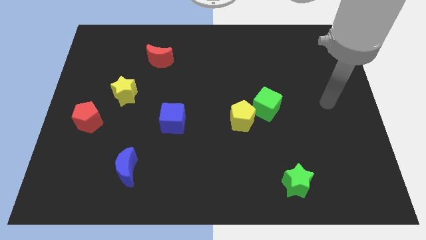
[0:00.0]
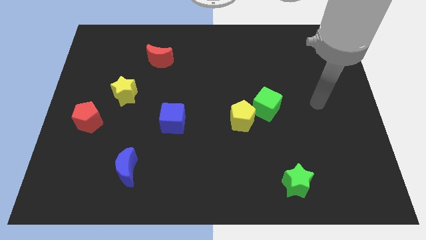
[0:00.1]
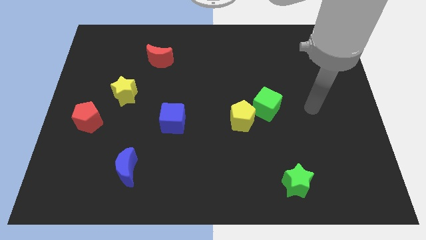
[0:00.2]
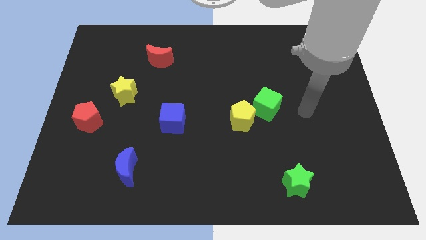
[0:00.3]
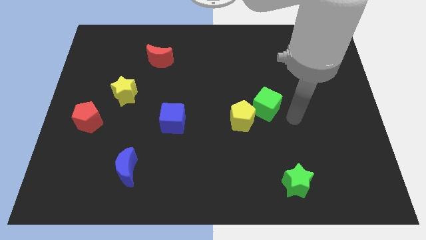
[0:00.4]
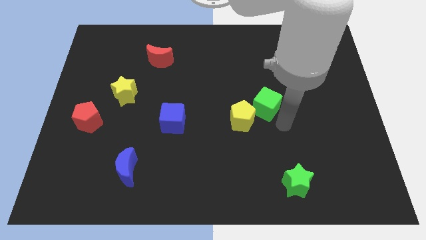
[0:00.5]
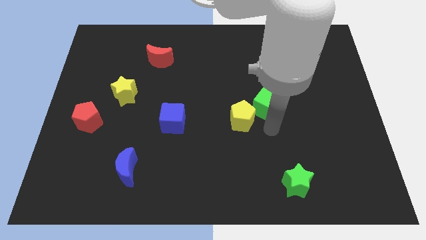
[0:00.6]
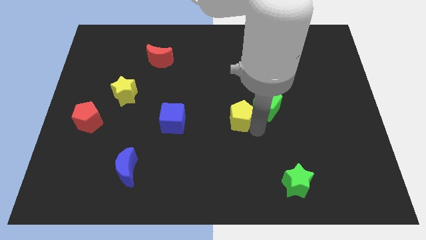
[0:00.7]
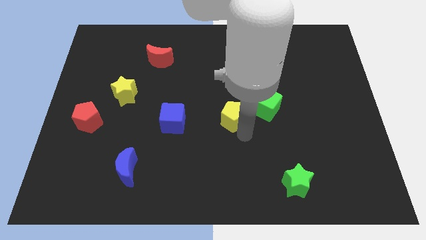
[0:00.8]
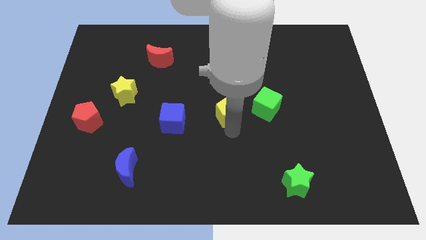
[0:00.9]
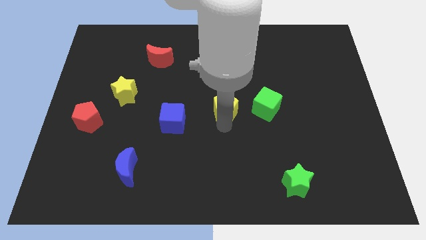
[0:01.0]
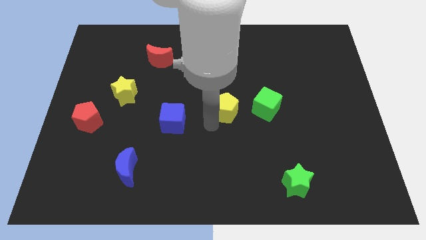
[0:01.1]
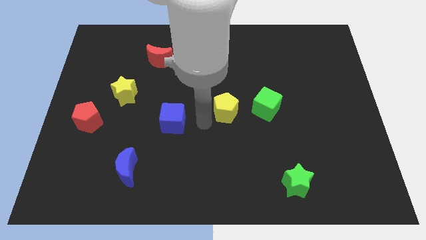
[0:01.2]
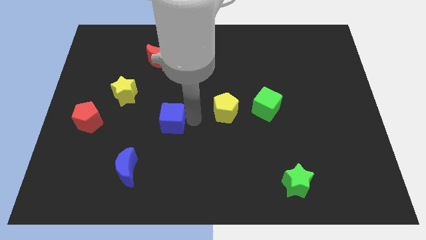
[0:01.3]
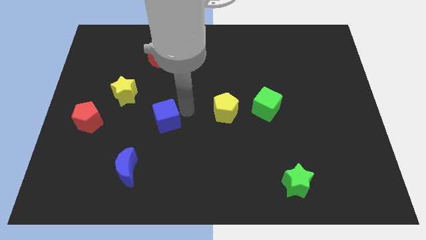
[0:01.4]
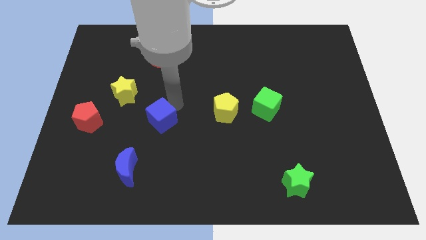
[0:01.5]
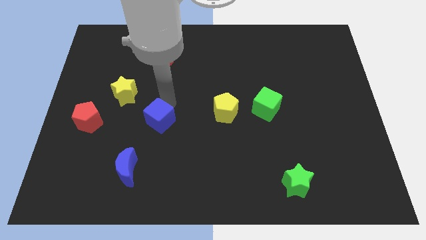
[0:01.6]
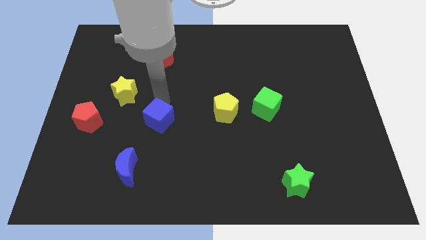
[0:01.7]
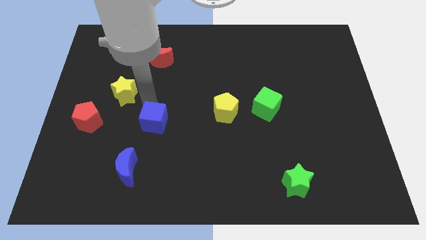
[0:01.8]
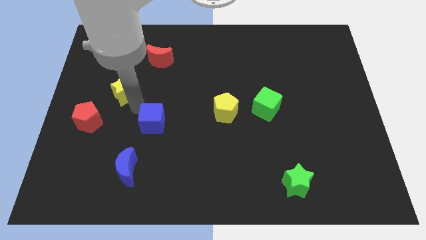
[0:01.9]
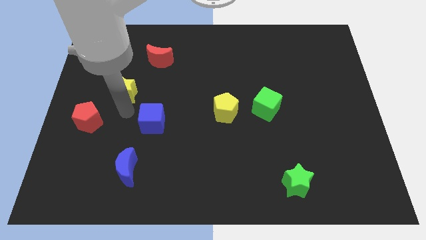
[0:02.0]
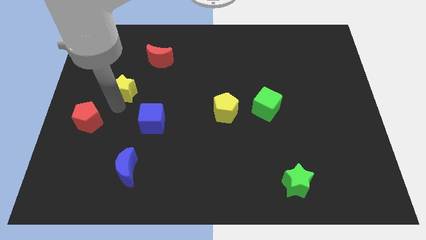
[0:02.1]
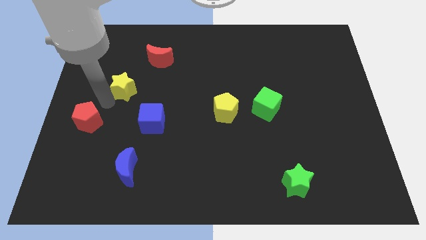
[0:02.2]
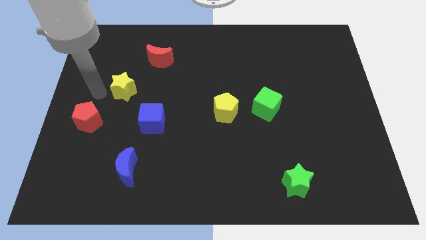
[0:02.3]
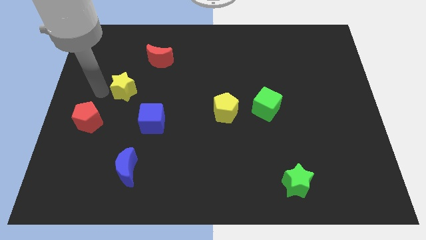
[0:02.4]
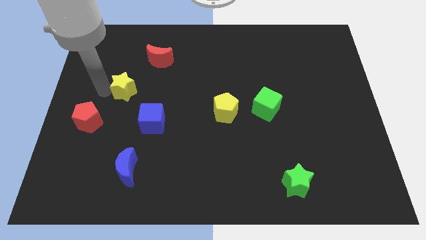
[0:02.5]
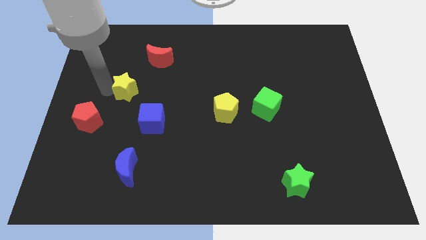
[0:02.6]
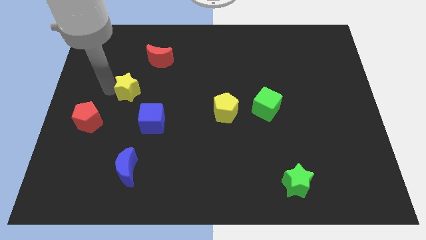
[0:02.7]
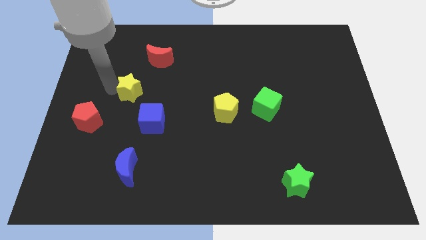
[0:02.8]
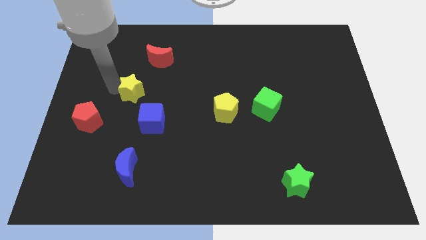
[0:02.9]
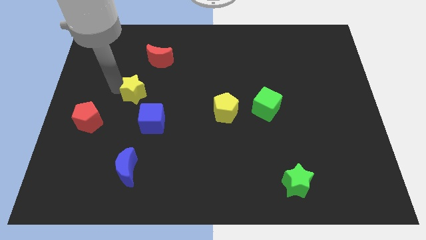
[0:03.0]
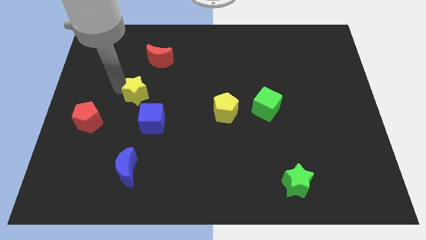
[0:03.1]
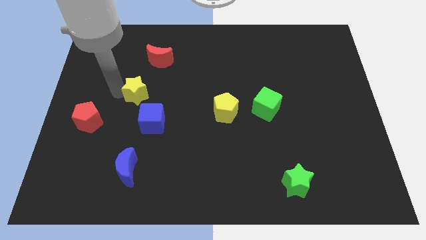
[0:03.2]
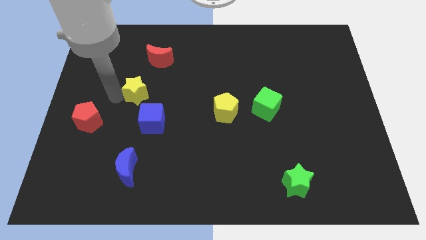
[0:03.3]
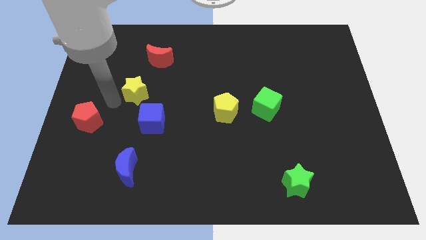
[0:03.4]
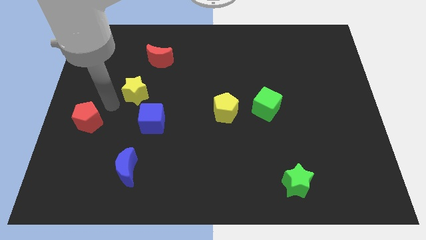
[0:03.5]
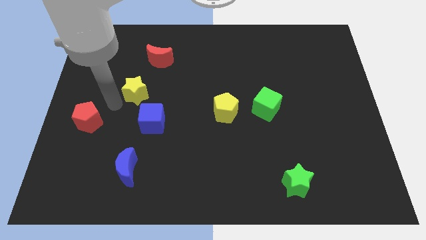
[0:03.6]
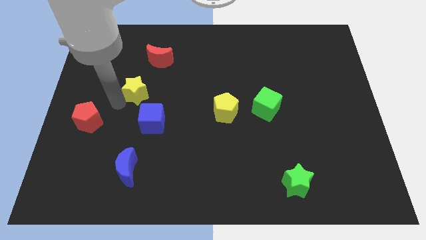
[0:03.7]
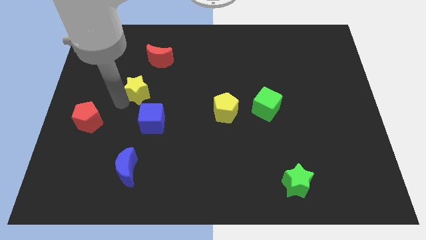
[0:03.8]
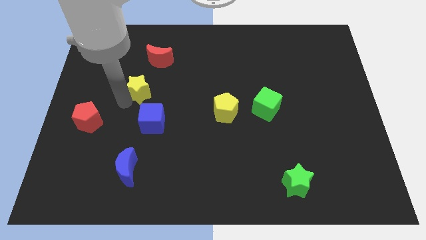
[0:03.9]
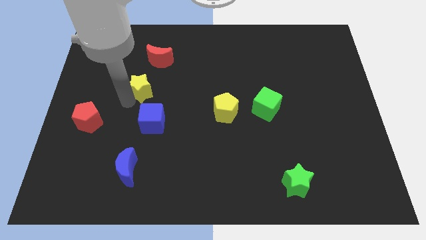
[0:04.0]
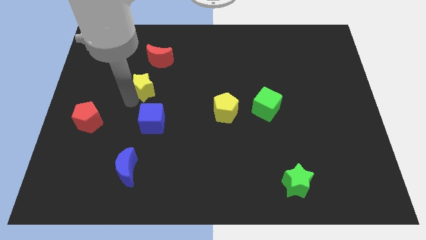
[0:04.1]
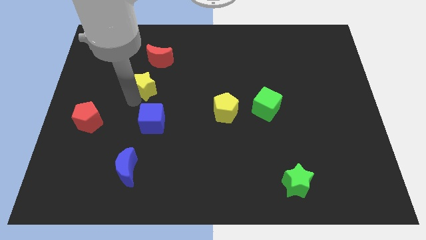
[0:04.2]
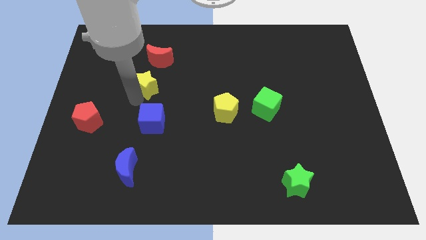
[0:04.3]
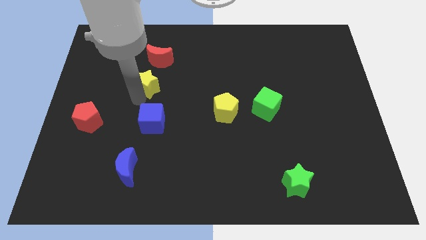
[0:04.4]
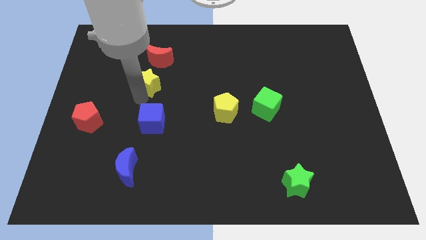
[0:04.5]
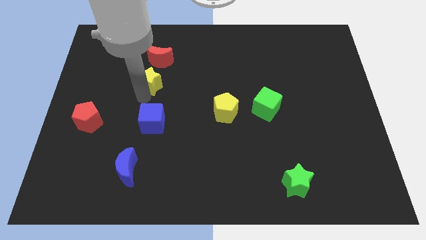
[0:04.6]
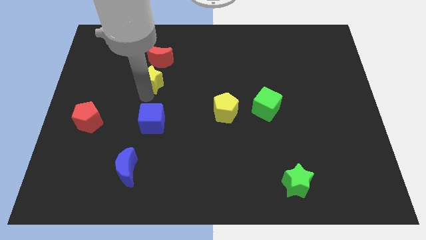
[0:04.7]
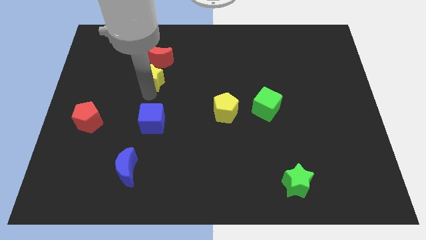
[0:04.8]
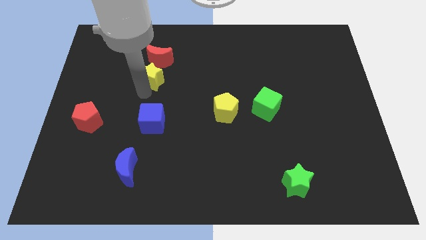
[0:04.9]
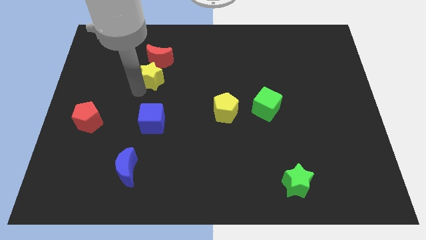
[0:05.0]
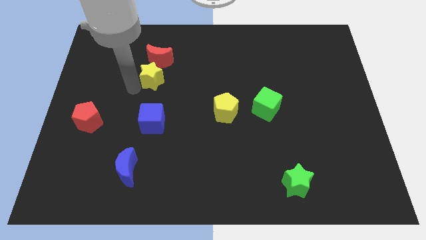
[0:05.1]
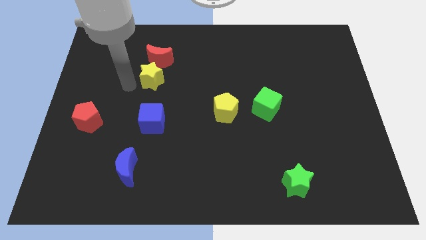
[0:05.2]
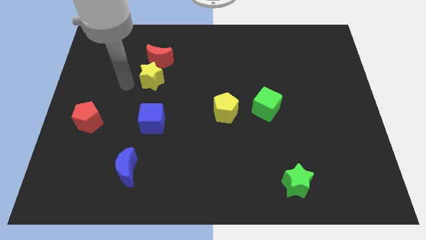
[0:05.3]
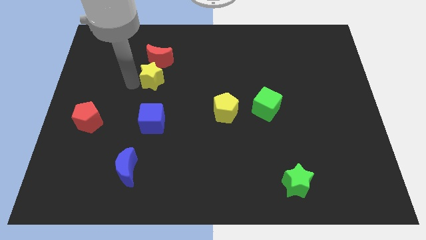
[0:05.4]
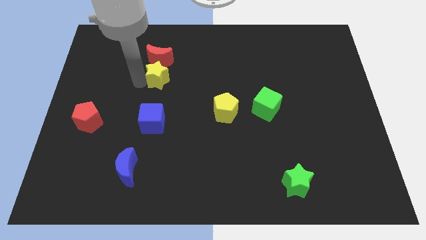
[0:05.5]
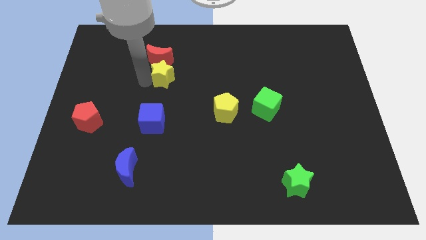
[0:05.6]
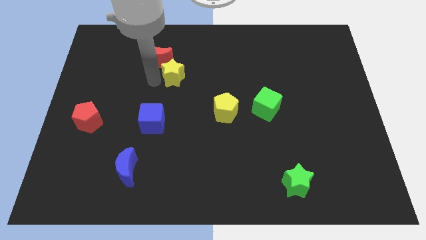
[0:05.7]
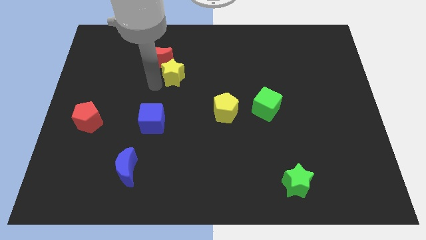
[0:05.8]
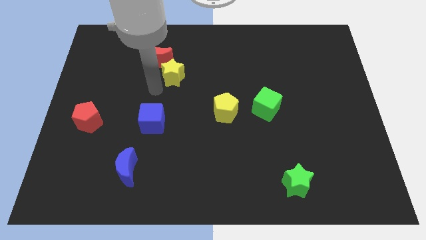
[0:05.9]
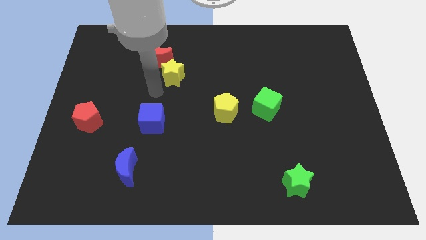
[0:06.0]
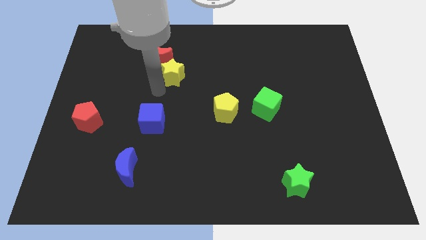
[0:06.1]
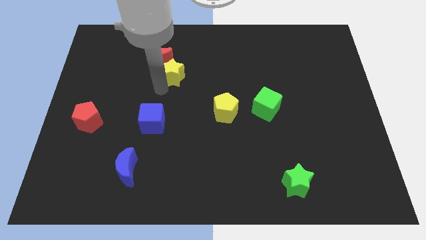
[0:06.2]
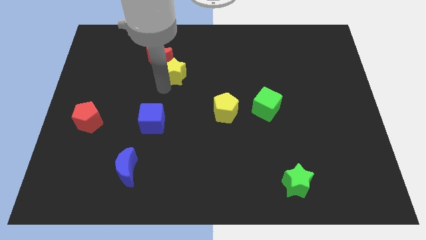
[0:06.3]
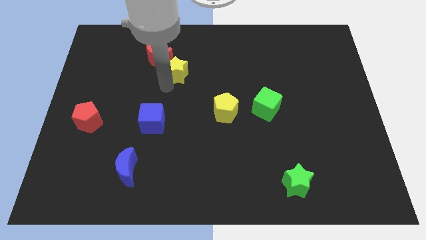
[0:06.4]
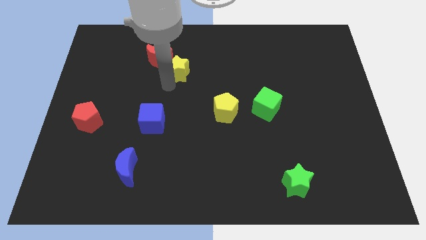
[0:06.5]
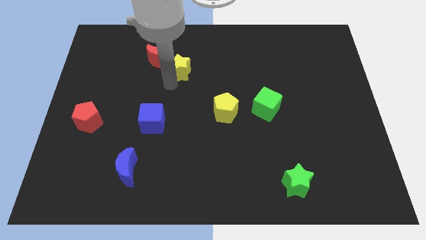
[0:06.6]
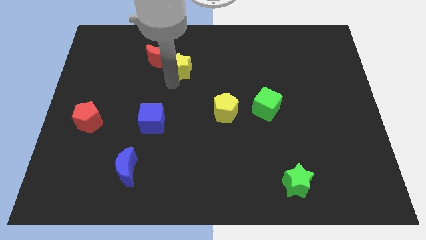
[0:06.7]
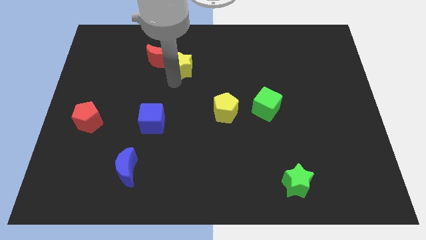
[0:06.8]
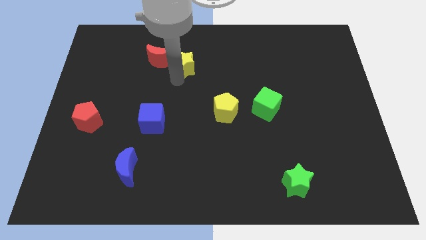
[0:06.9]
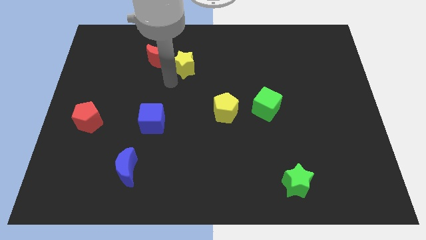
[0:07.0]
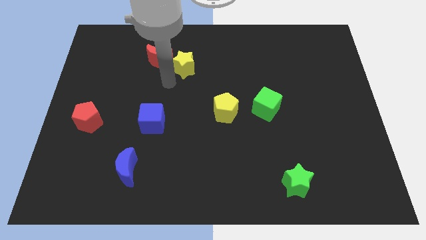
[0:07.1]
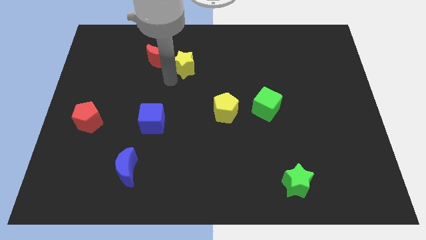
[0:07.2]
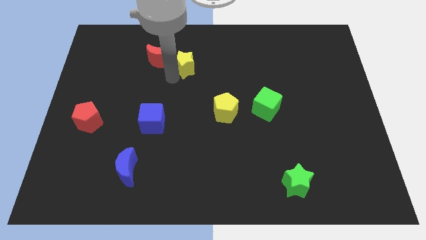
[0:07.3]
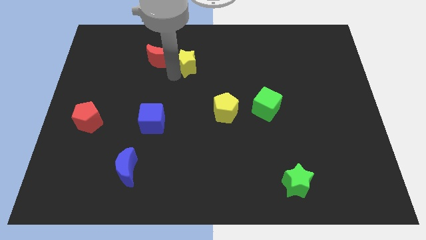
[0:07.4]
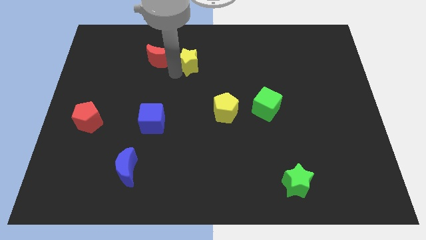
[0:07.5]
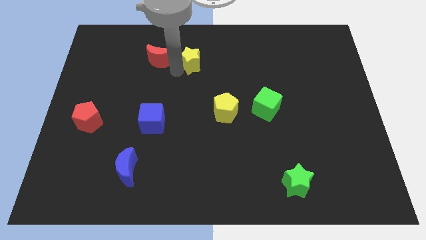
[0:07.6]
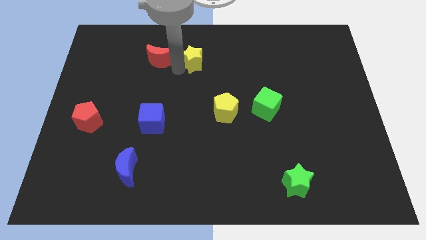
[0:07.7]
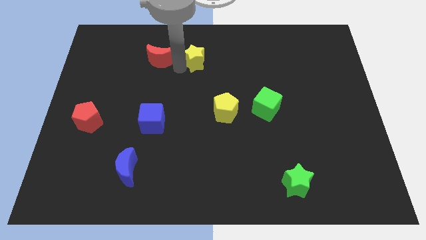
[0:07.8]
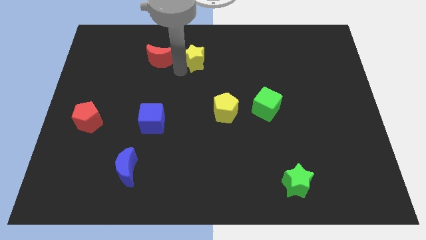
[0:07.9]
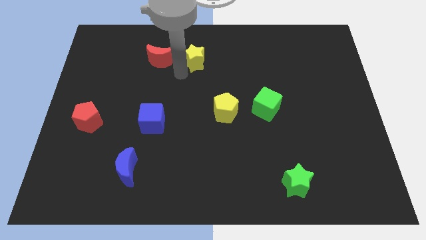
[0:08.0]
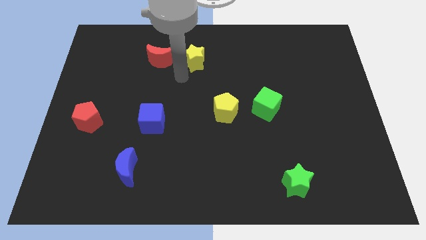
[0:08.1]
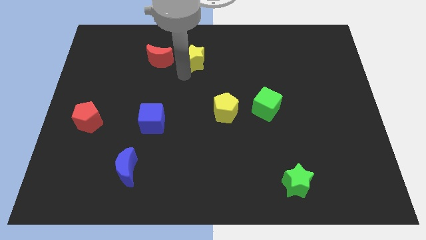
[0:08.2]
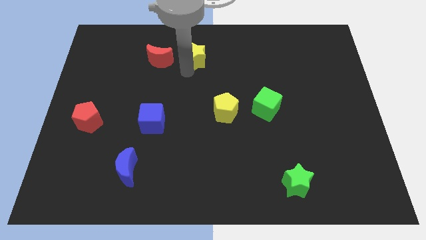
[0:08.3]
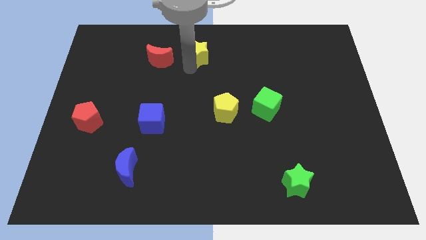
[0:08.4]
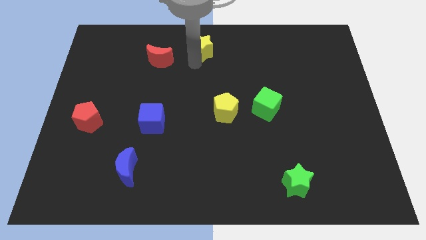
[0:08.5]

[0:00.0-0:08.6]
move the yellow star to the top
